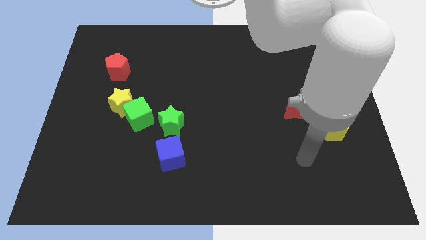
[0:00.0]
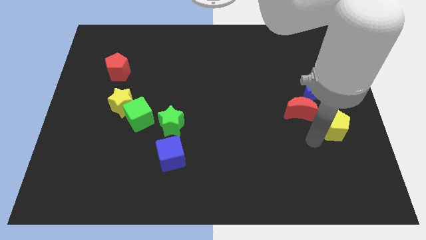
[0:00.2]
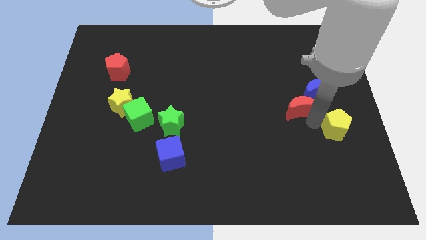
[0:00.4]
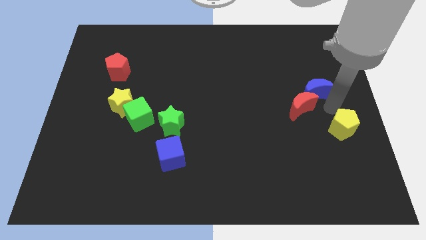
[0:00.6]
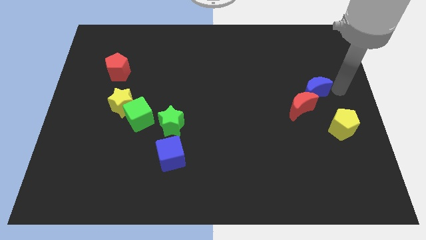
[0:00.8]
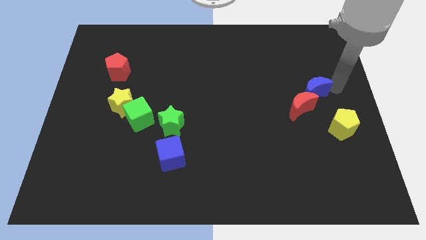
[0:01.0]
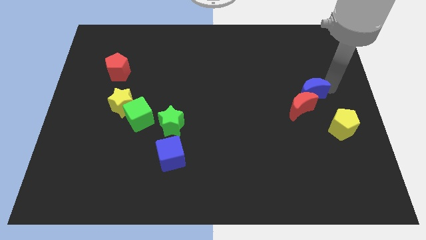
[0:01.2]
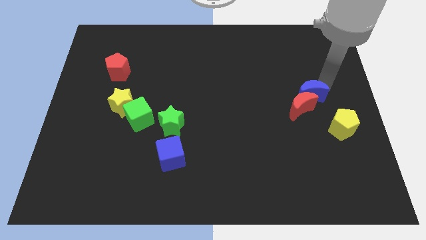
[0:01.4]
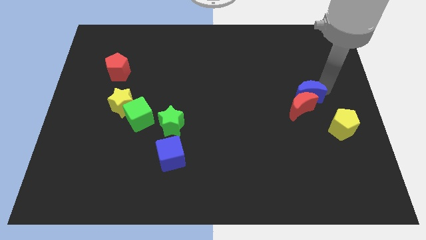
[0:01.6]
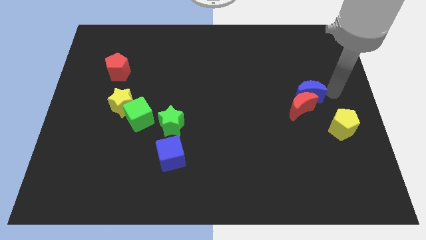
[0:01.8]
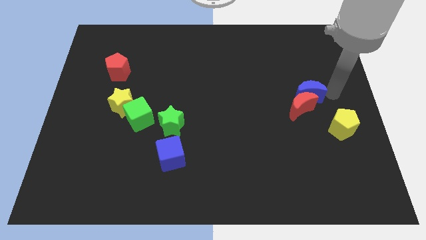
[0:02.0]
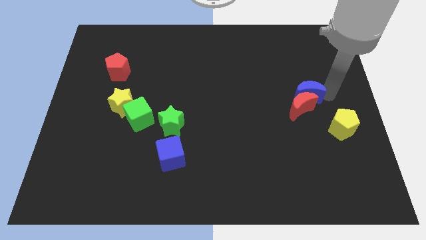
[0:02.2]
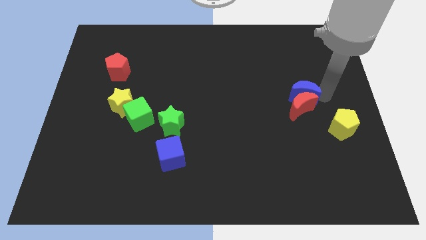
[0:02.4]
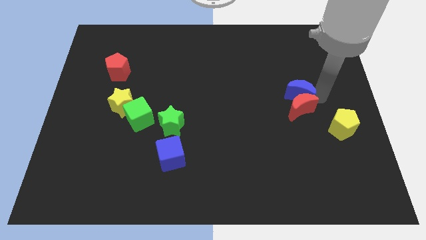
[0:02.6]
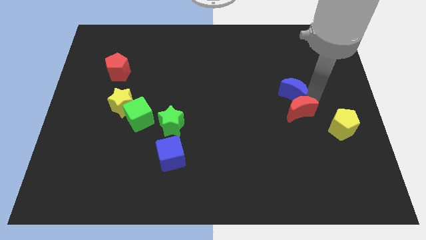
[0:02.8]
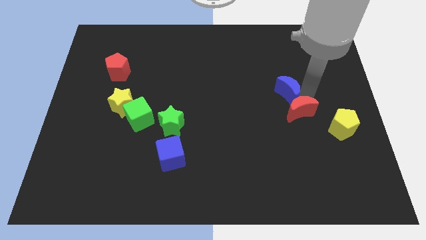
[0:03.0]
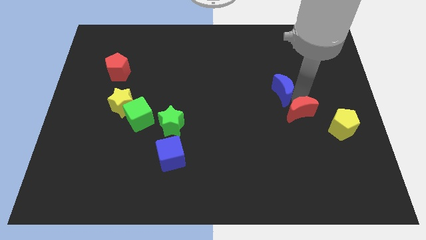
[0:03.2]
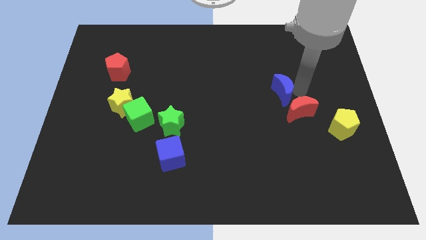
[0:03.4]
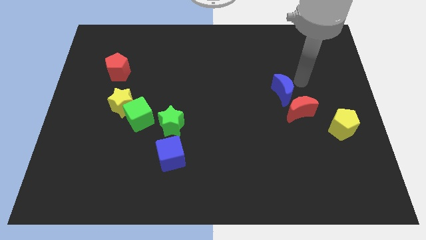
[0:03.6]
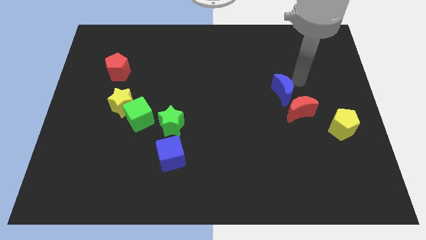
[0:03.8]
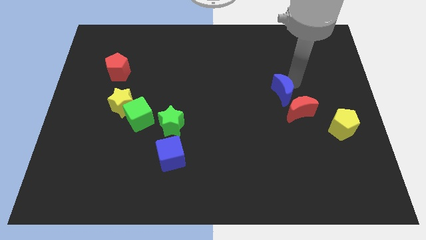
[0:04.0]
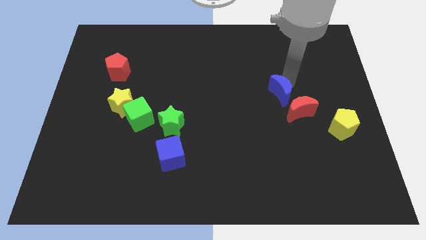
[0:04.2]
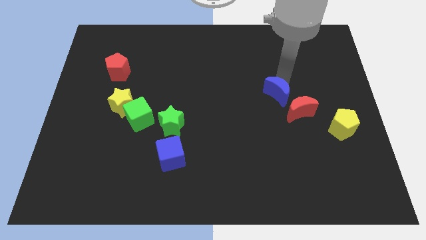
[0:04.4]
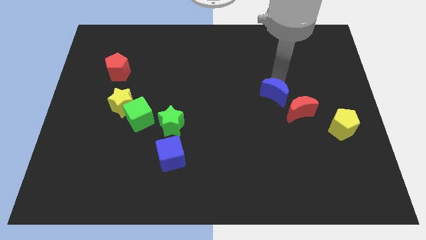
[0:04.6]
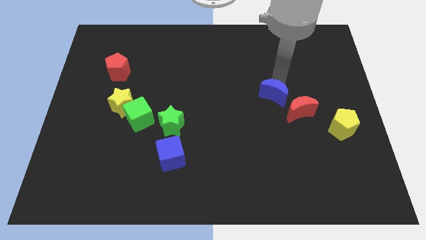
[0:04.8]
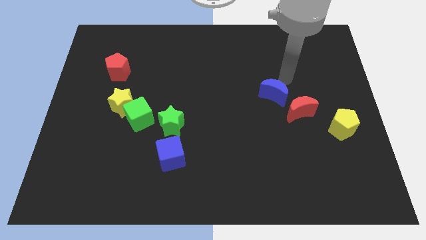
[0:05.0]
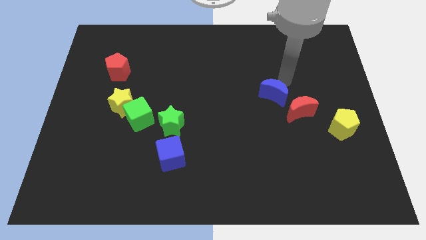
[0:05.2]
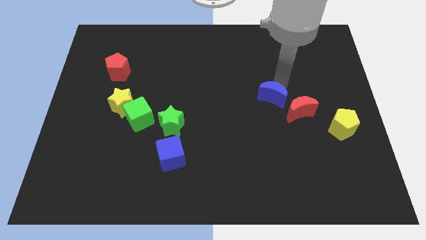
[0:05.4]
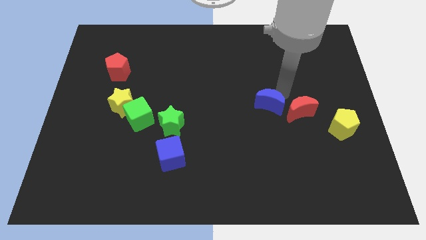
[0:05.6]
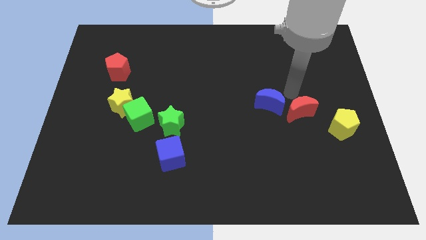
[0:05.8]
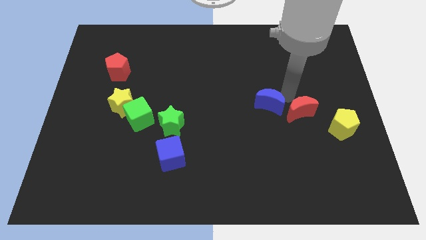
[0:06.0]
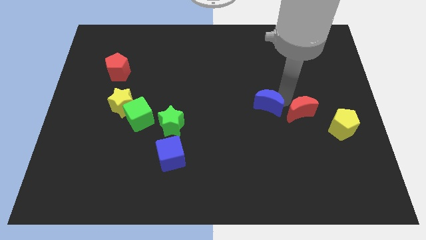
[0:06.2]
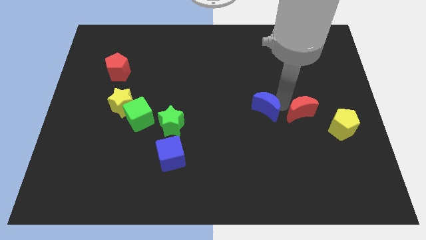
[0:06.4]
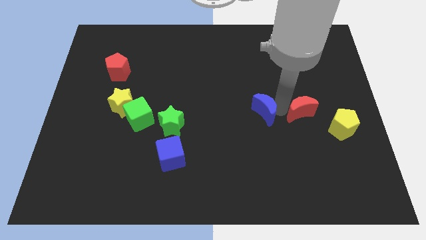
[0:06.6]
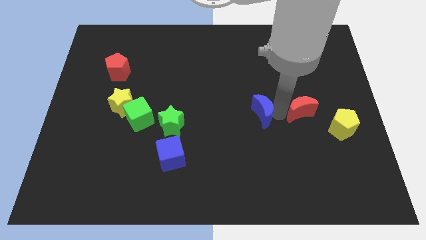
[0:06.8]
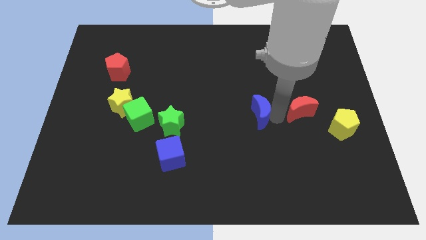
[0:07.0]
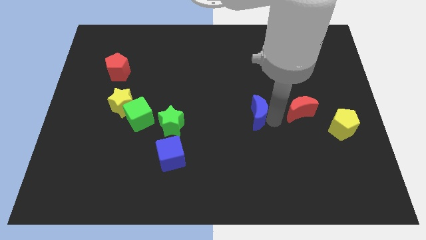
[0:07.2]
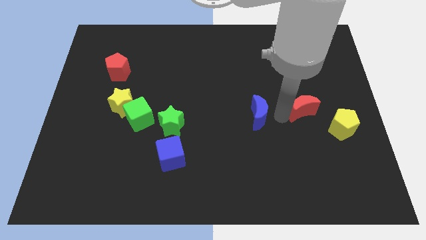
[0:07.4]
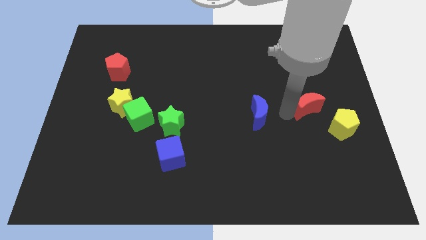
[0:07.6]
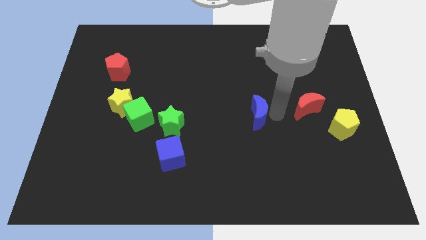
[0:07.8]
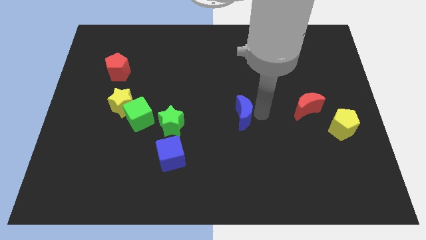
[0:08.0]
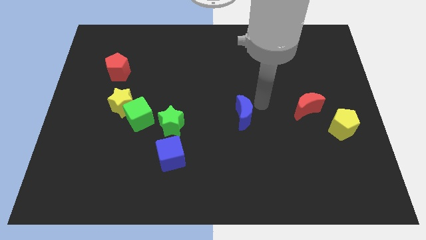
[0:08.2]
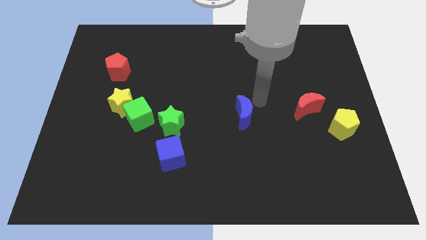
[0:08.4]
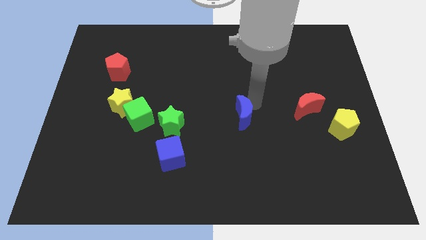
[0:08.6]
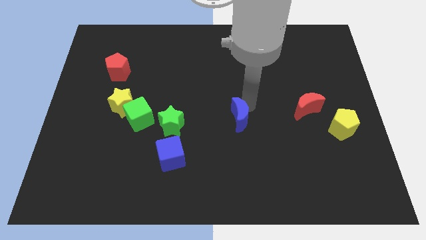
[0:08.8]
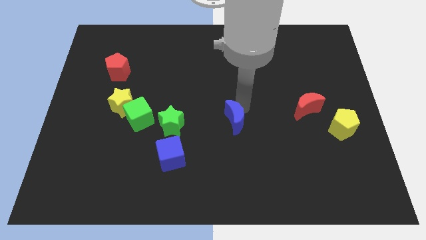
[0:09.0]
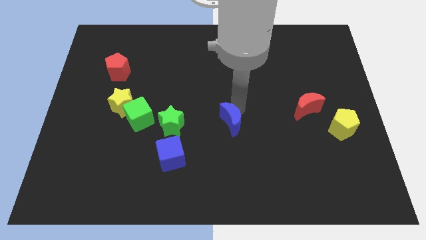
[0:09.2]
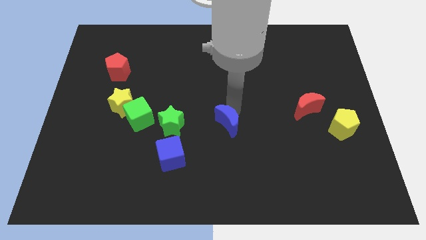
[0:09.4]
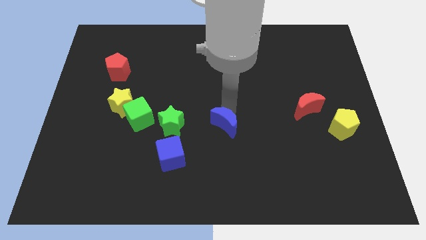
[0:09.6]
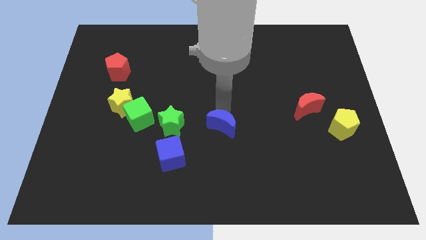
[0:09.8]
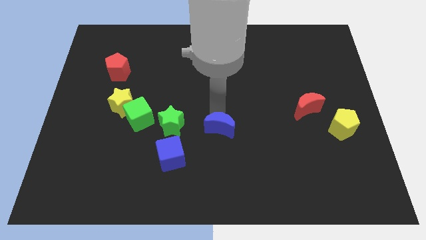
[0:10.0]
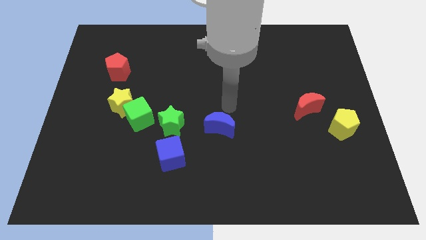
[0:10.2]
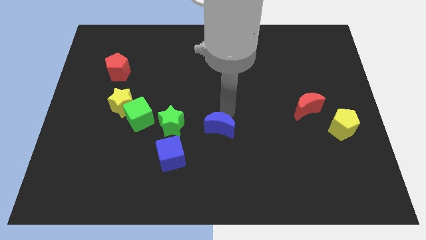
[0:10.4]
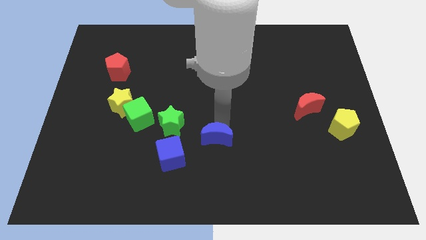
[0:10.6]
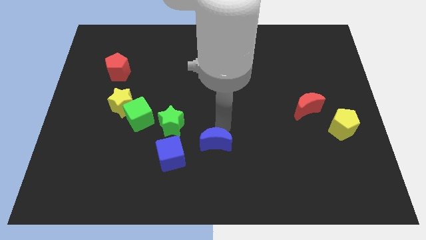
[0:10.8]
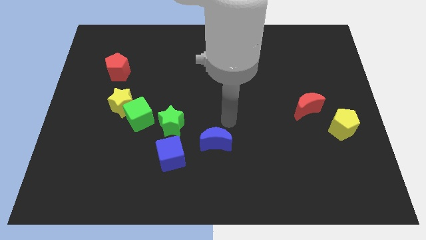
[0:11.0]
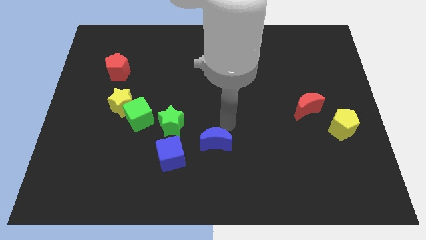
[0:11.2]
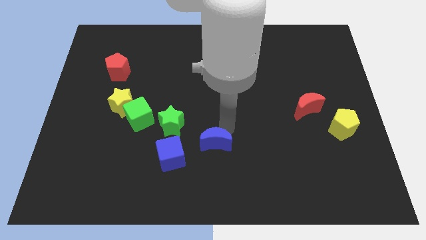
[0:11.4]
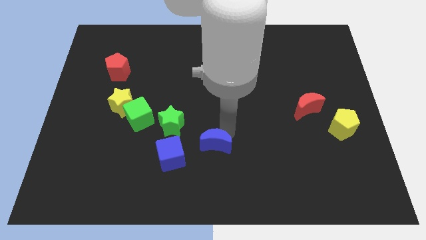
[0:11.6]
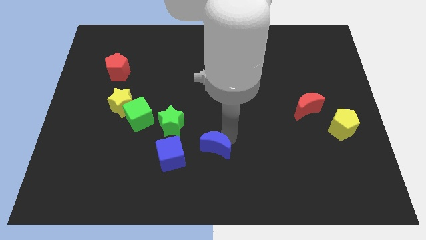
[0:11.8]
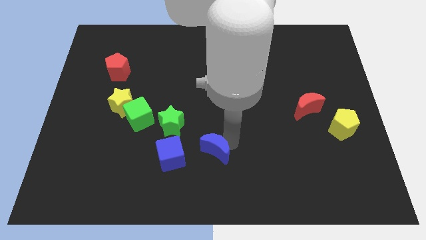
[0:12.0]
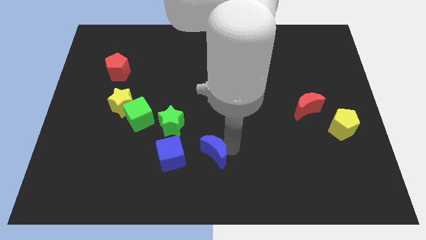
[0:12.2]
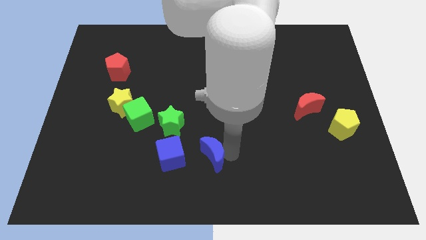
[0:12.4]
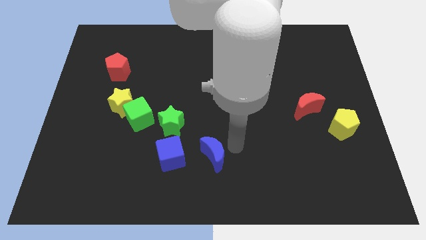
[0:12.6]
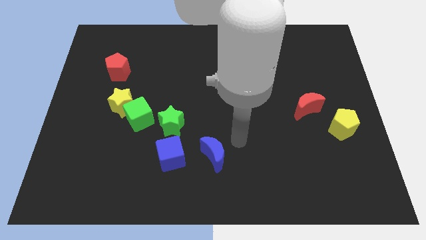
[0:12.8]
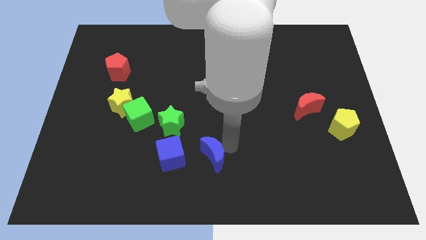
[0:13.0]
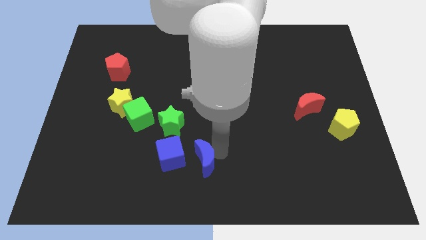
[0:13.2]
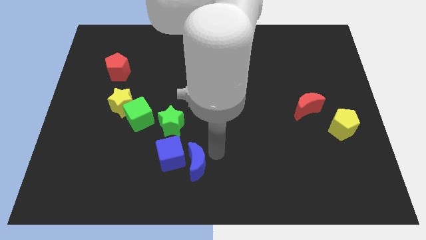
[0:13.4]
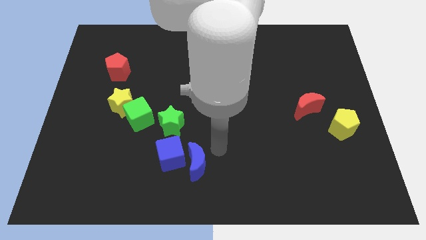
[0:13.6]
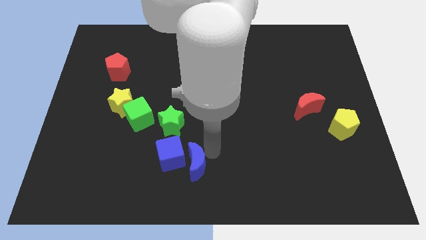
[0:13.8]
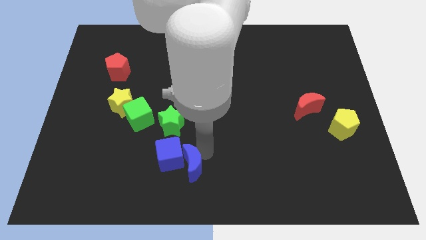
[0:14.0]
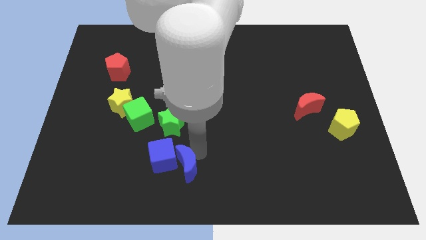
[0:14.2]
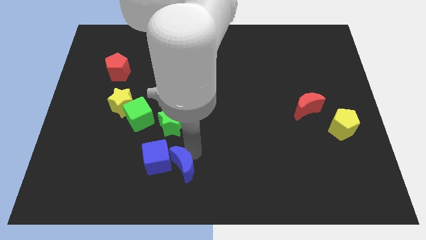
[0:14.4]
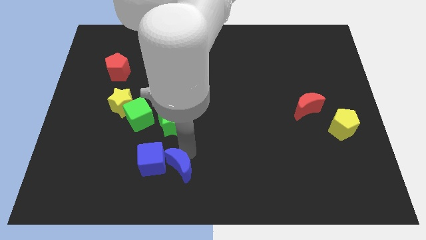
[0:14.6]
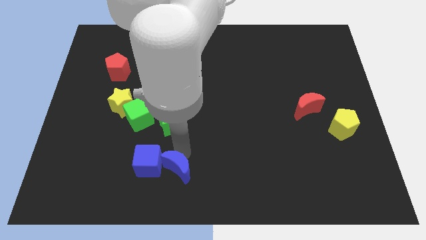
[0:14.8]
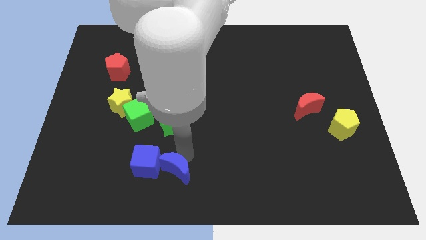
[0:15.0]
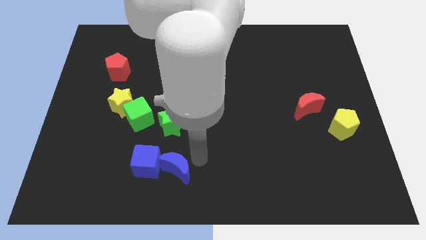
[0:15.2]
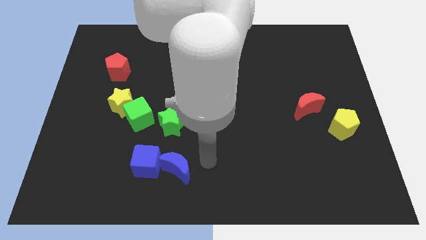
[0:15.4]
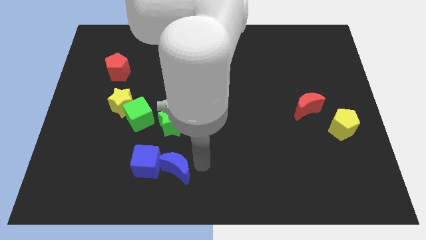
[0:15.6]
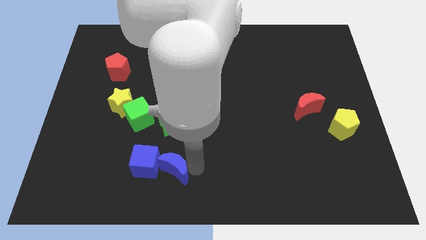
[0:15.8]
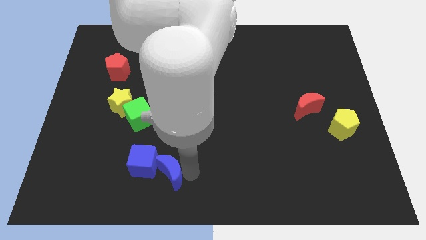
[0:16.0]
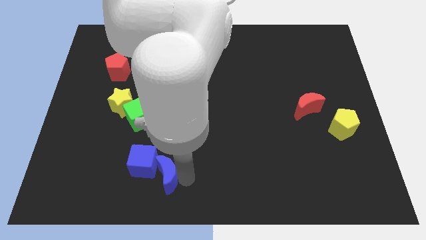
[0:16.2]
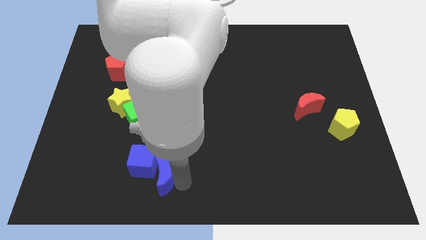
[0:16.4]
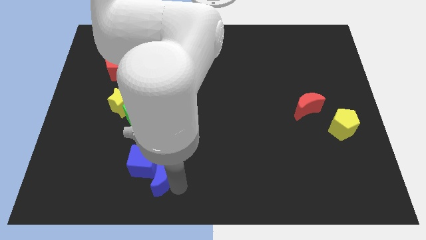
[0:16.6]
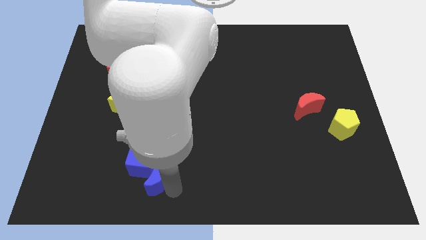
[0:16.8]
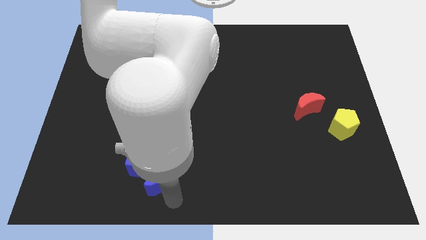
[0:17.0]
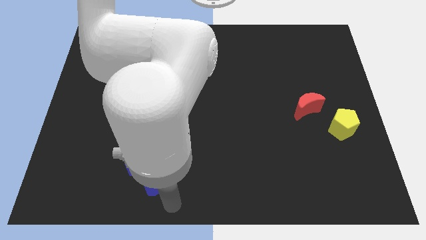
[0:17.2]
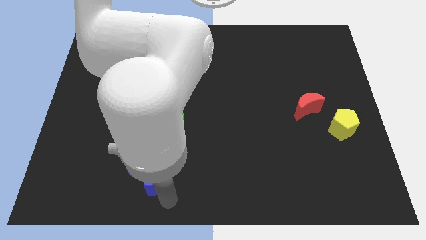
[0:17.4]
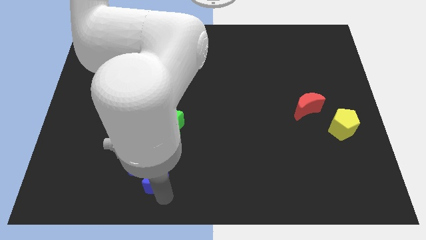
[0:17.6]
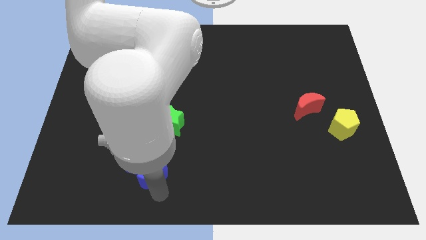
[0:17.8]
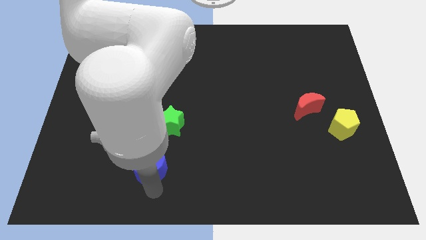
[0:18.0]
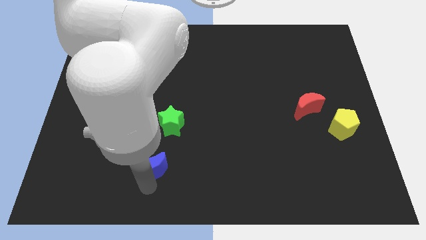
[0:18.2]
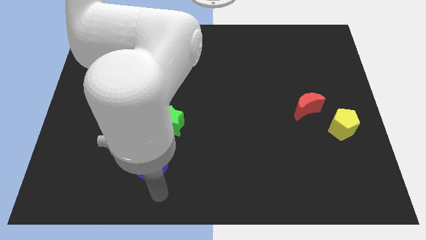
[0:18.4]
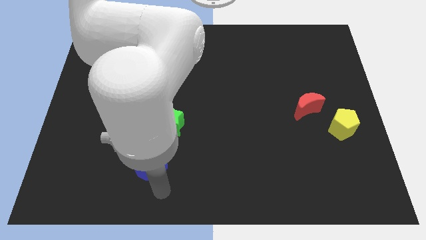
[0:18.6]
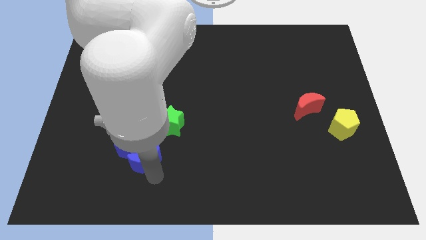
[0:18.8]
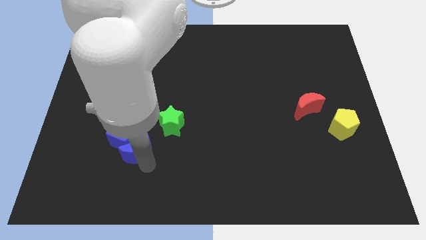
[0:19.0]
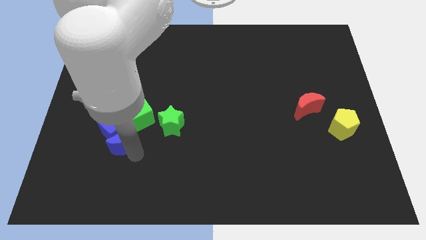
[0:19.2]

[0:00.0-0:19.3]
put the blue moon just left of the green star
